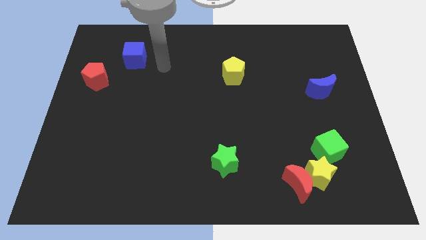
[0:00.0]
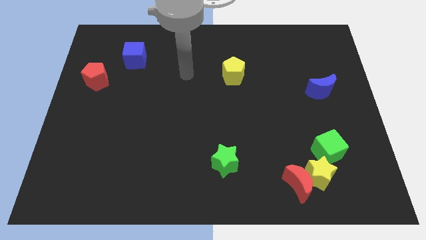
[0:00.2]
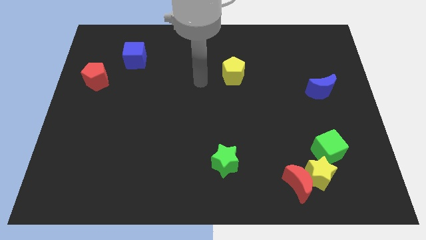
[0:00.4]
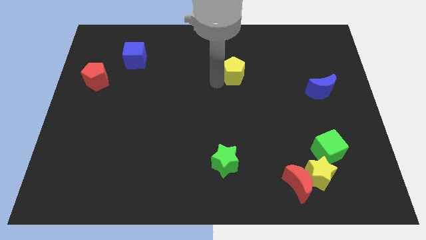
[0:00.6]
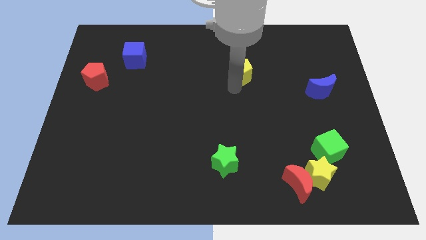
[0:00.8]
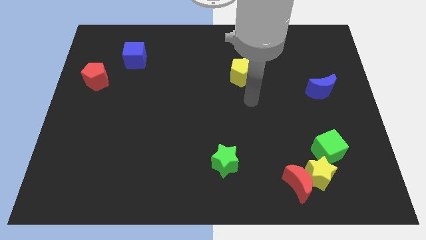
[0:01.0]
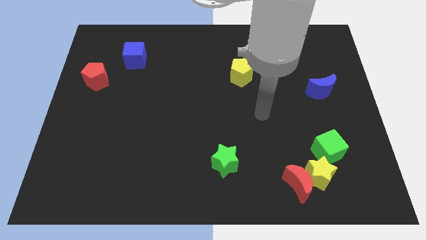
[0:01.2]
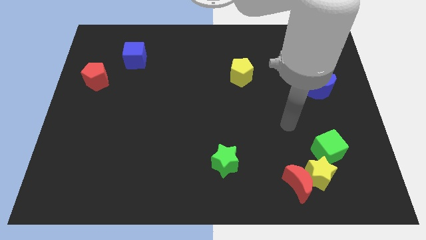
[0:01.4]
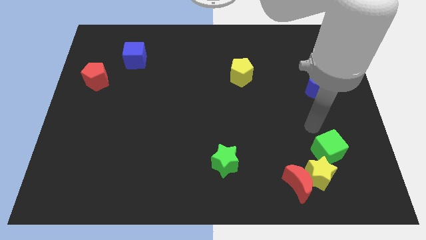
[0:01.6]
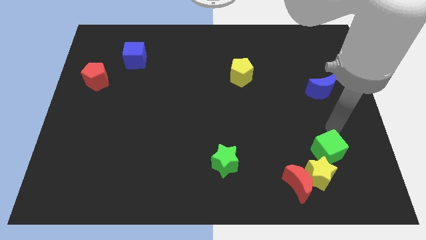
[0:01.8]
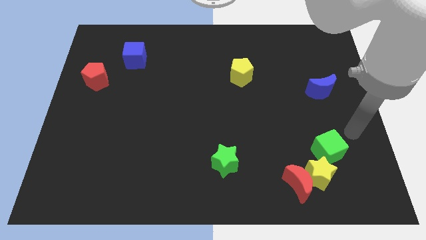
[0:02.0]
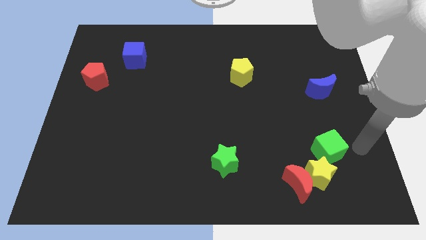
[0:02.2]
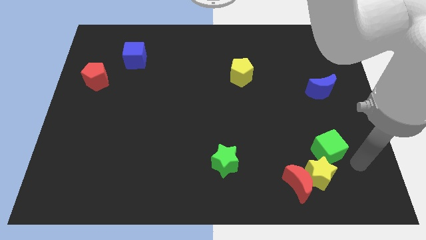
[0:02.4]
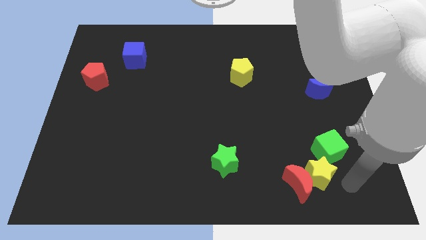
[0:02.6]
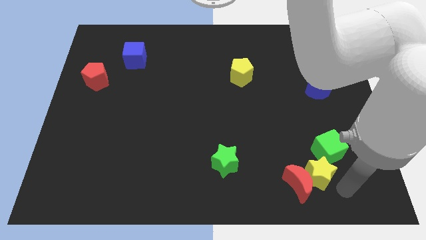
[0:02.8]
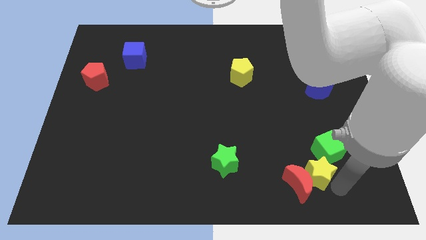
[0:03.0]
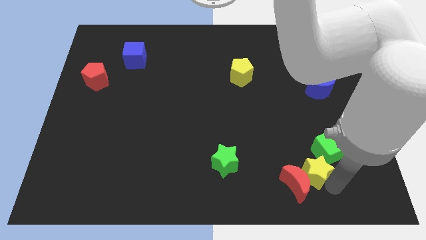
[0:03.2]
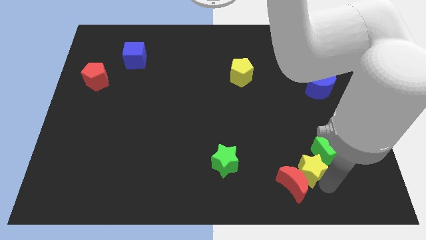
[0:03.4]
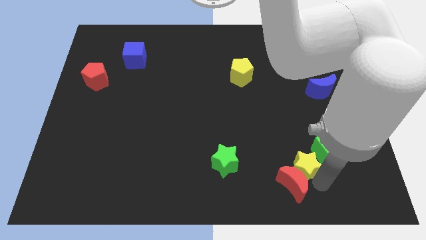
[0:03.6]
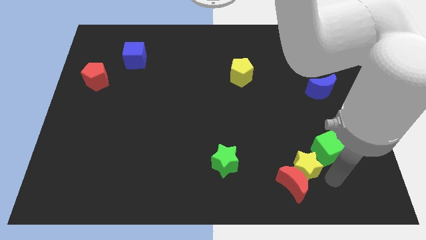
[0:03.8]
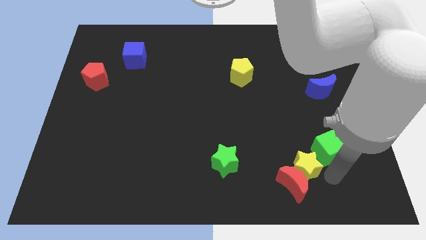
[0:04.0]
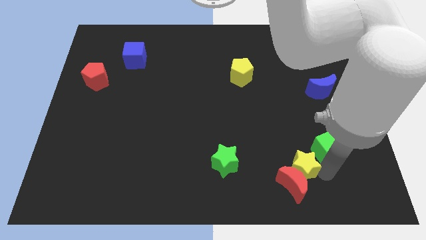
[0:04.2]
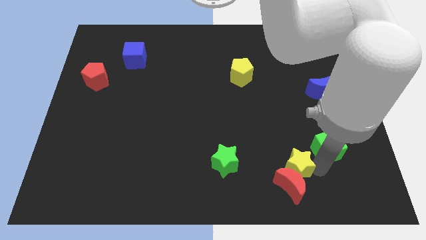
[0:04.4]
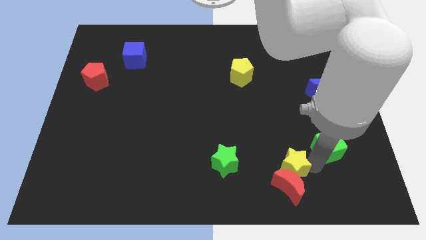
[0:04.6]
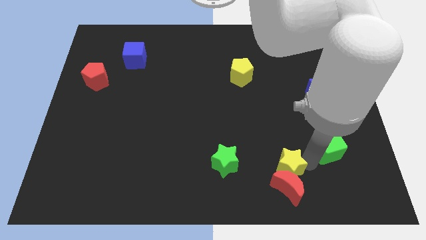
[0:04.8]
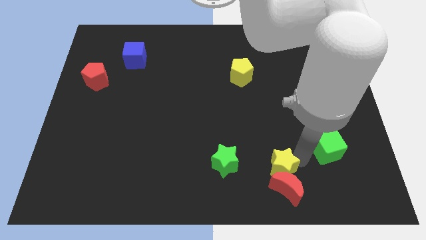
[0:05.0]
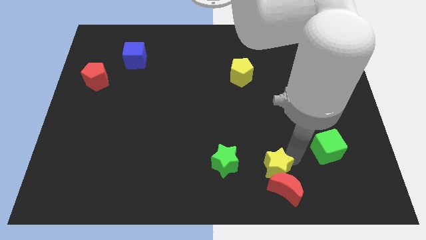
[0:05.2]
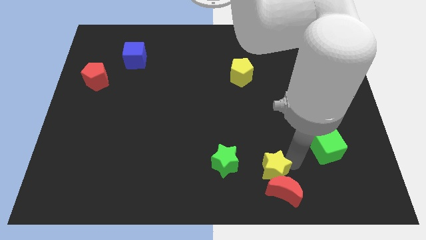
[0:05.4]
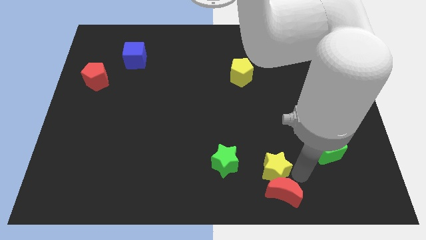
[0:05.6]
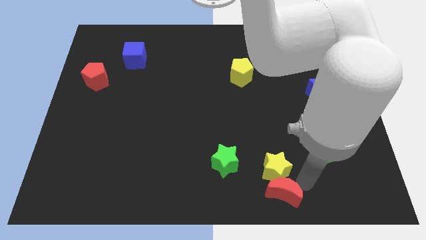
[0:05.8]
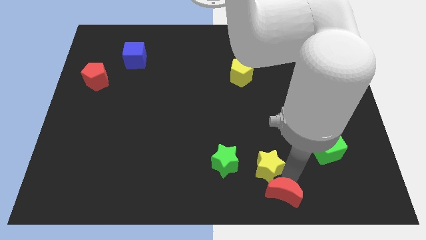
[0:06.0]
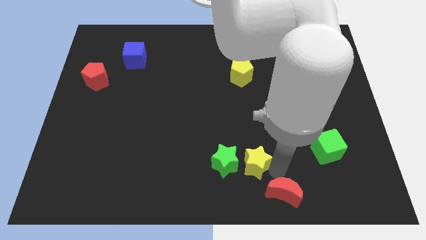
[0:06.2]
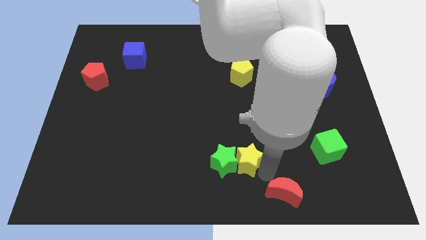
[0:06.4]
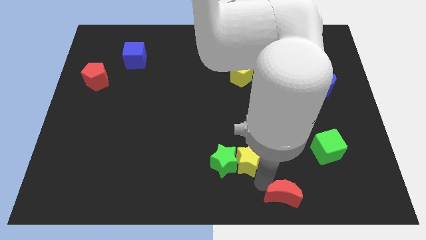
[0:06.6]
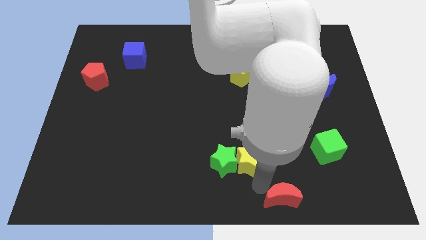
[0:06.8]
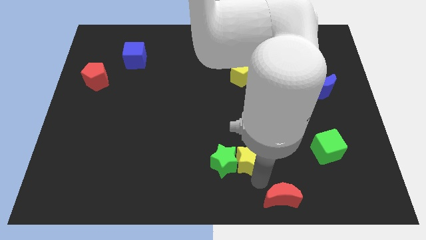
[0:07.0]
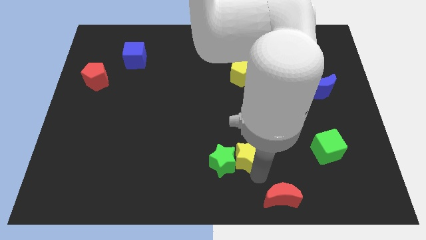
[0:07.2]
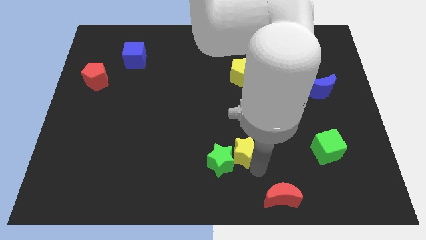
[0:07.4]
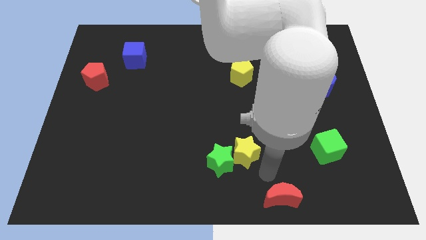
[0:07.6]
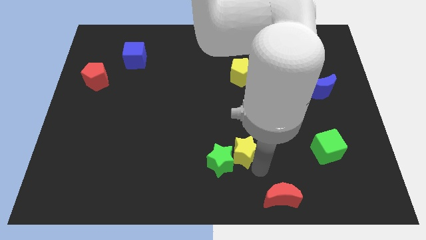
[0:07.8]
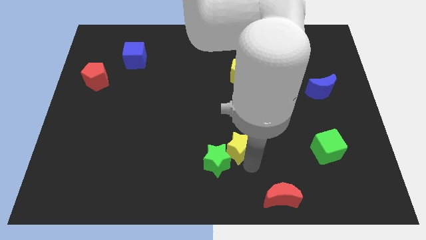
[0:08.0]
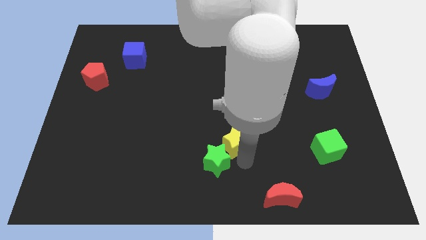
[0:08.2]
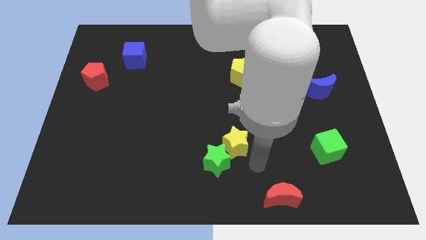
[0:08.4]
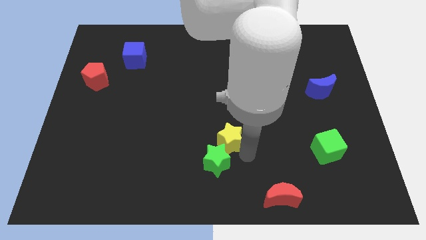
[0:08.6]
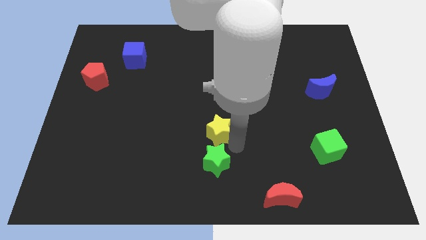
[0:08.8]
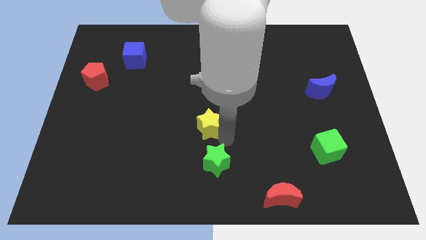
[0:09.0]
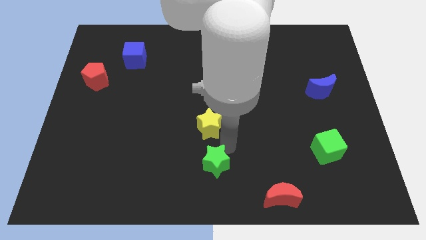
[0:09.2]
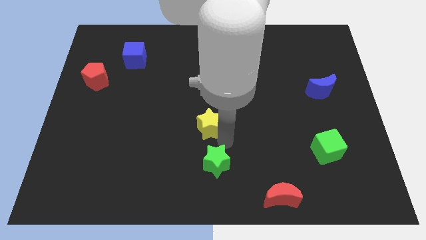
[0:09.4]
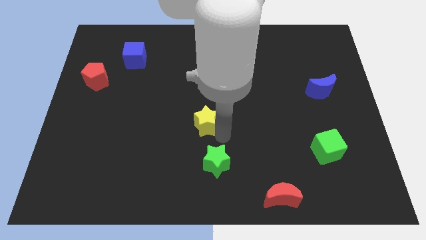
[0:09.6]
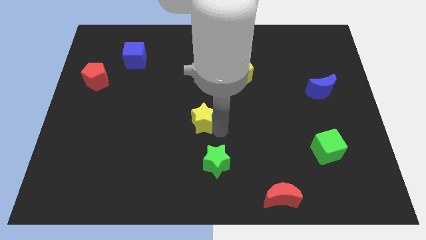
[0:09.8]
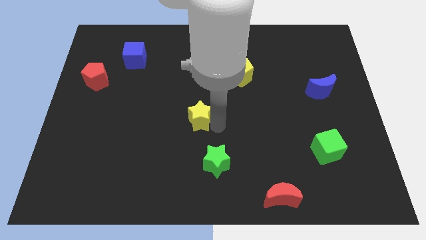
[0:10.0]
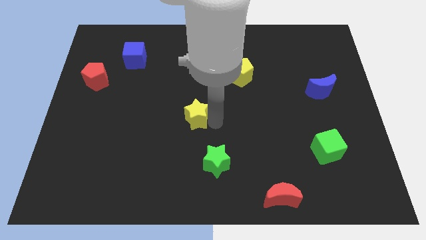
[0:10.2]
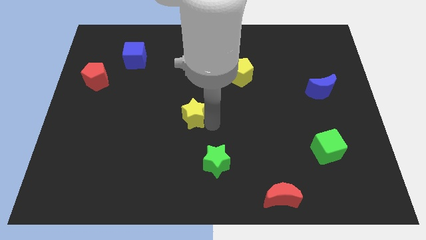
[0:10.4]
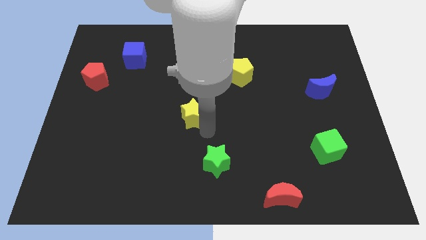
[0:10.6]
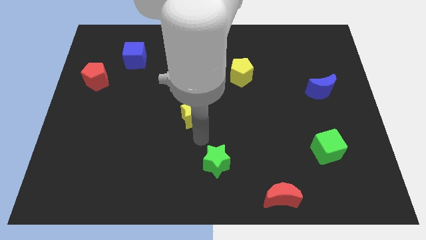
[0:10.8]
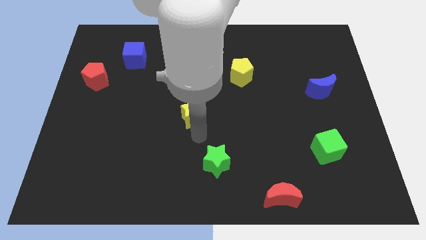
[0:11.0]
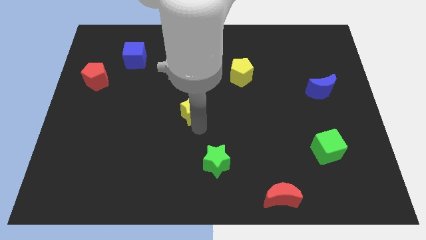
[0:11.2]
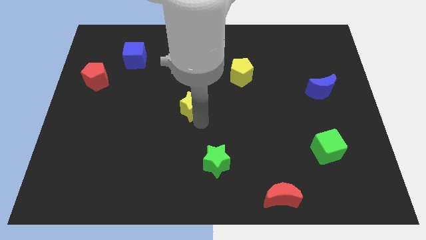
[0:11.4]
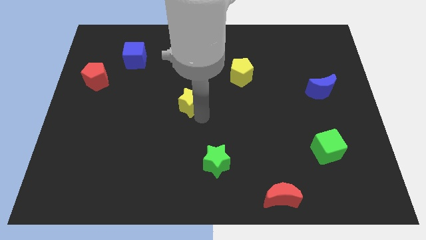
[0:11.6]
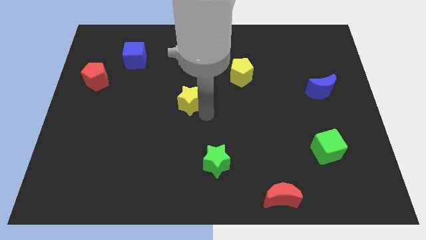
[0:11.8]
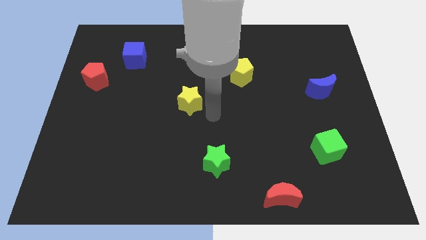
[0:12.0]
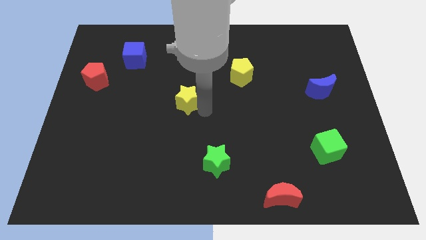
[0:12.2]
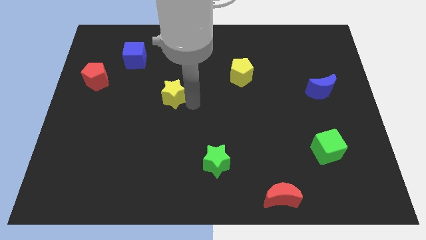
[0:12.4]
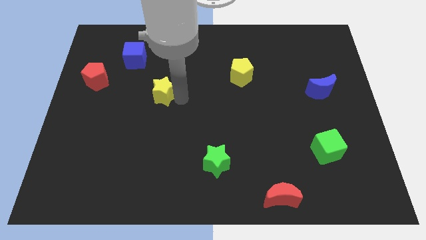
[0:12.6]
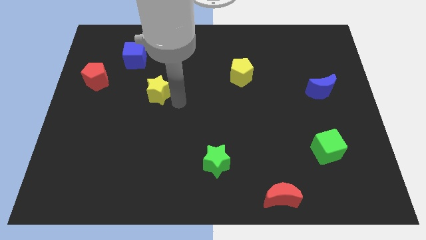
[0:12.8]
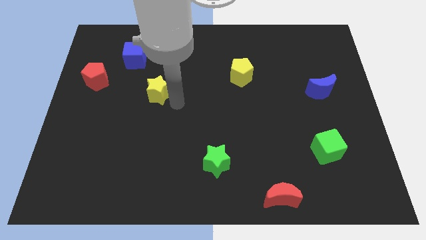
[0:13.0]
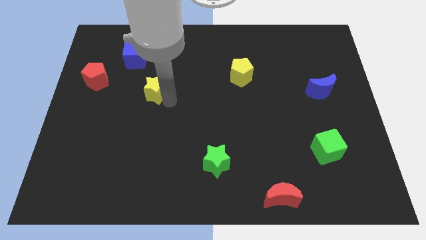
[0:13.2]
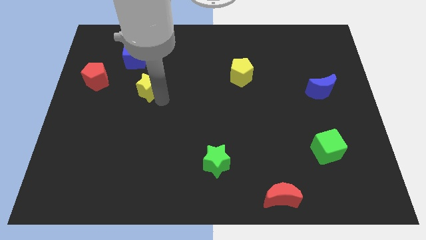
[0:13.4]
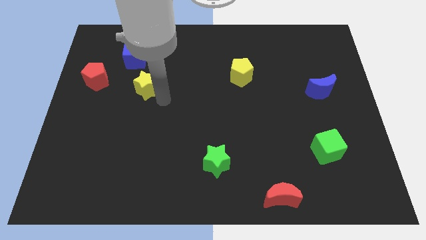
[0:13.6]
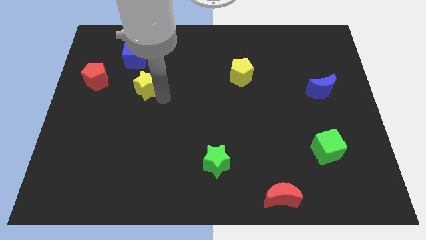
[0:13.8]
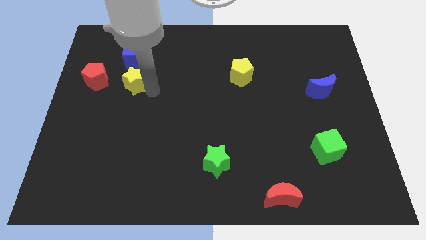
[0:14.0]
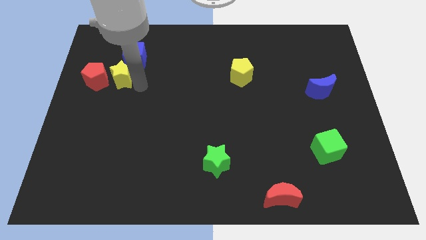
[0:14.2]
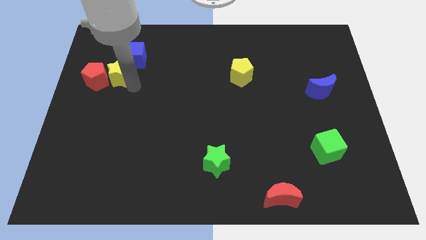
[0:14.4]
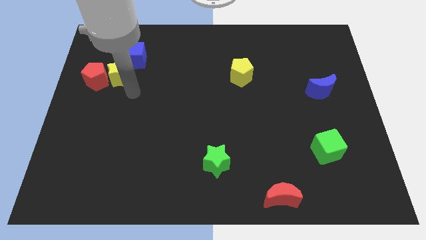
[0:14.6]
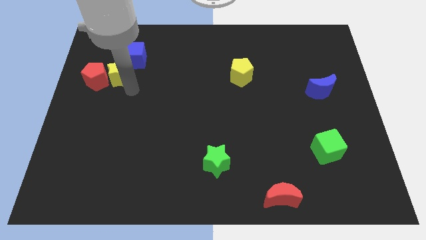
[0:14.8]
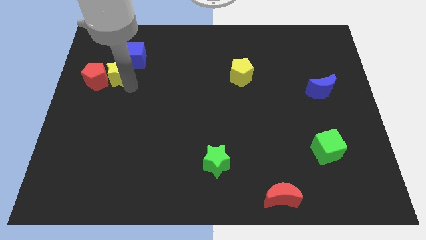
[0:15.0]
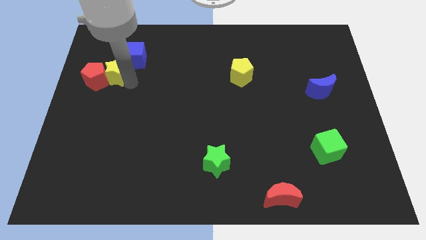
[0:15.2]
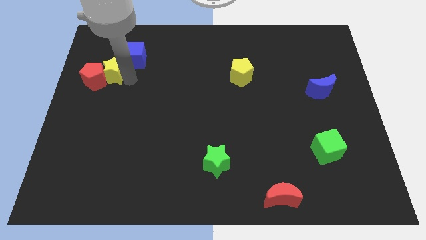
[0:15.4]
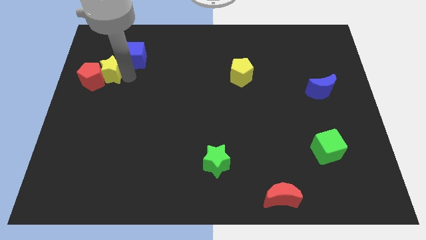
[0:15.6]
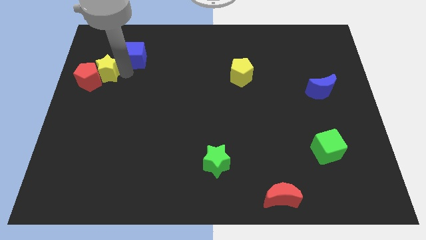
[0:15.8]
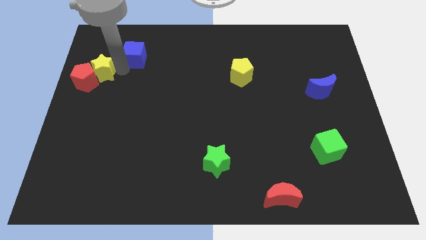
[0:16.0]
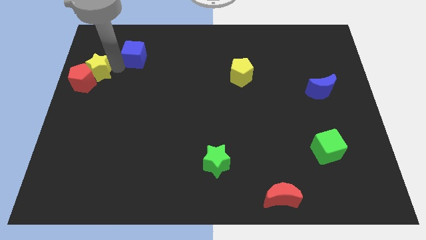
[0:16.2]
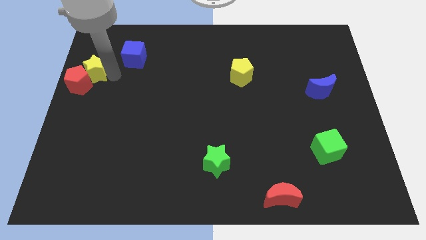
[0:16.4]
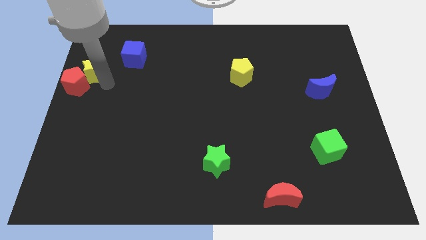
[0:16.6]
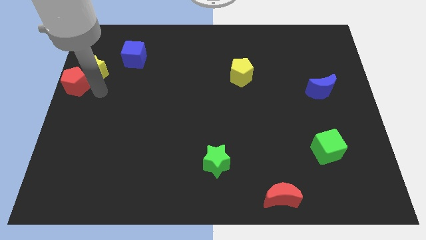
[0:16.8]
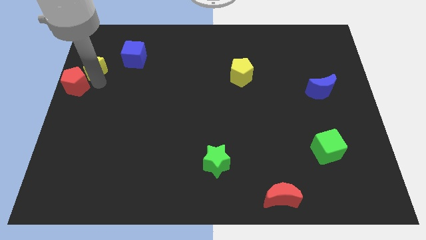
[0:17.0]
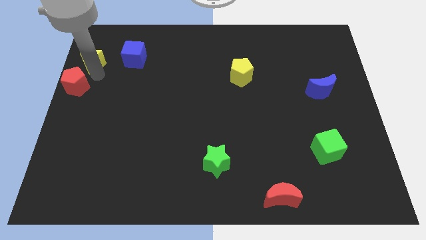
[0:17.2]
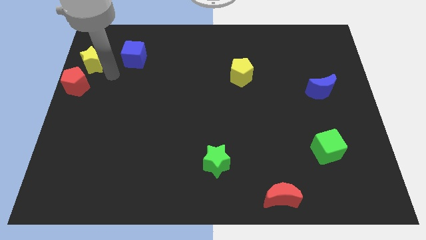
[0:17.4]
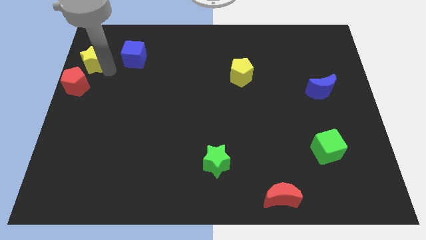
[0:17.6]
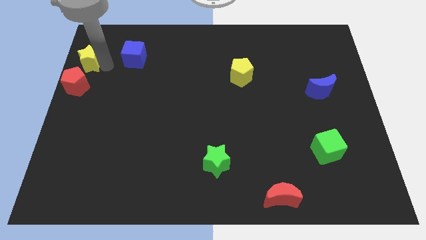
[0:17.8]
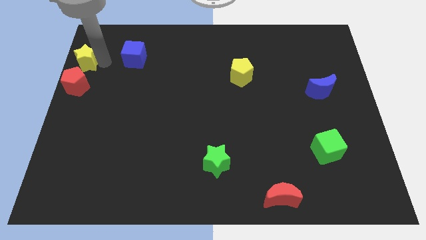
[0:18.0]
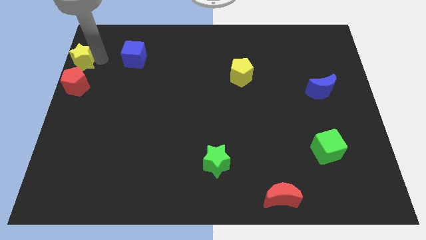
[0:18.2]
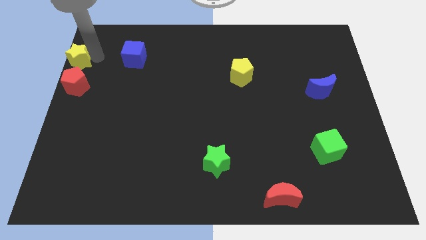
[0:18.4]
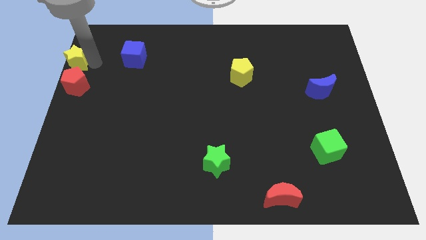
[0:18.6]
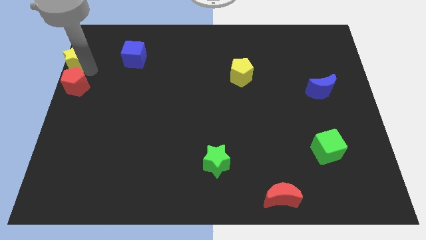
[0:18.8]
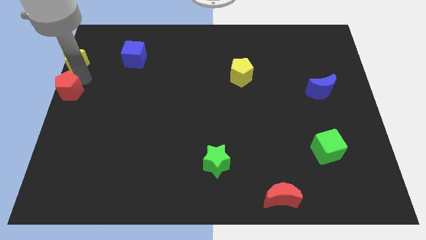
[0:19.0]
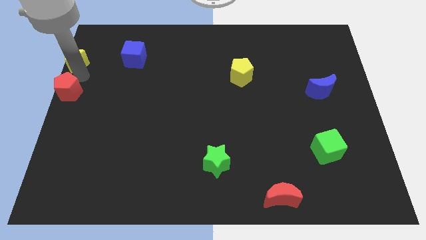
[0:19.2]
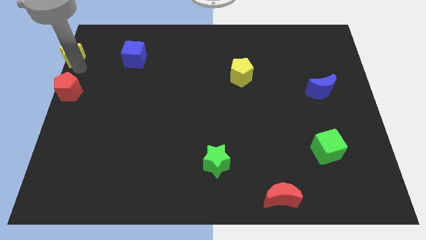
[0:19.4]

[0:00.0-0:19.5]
move the yellow star to the top left
